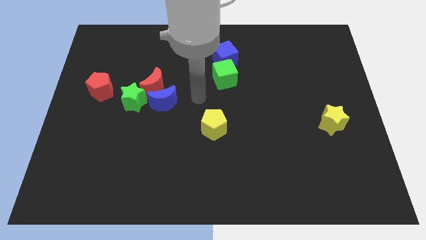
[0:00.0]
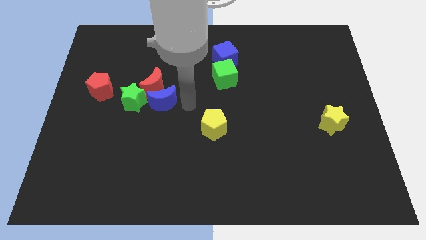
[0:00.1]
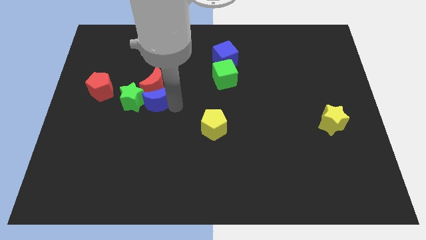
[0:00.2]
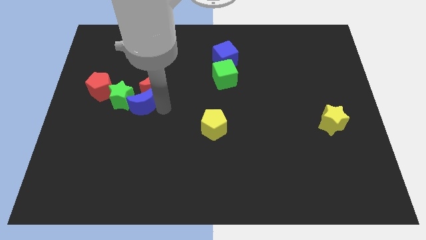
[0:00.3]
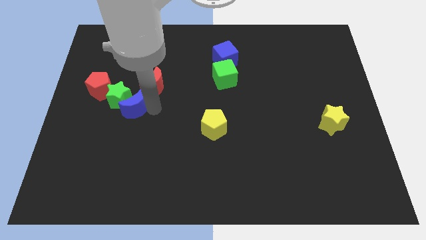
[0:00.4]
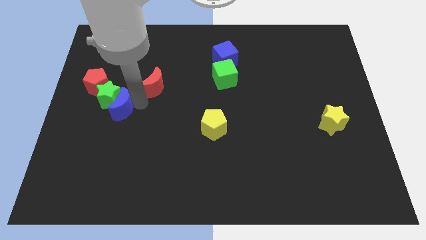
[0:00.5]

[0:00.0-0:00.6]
separate the red moon from the blue moon and green star

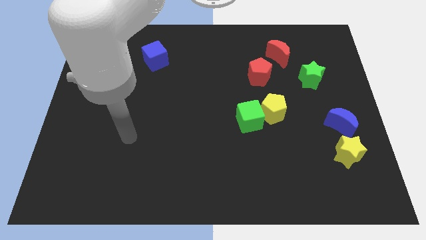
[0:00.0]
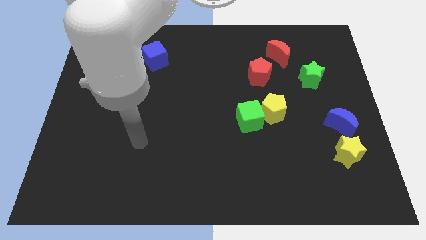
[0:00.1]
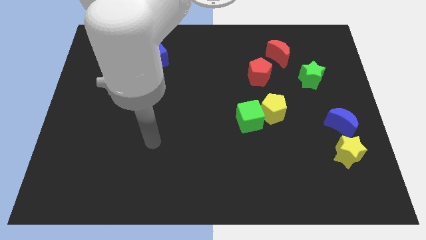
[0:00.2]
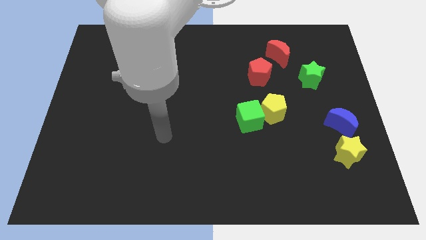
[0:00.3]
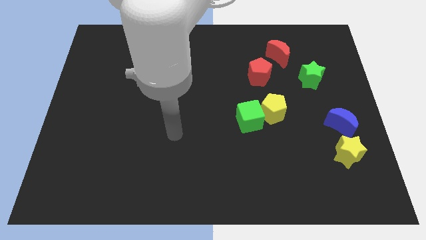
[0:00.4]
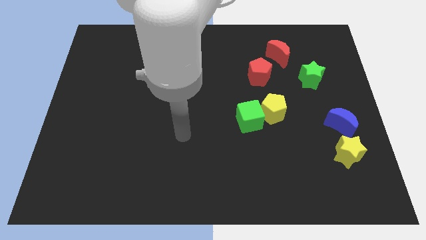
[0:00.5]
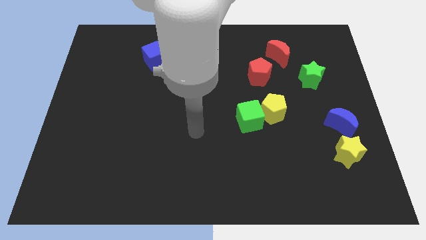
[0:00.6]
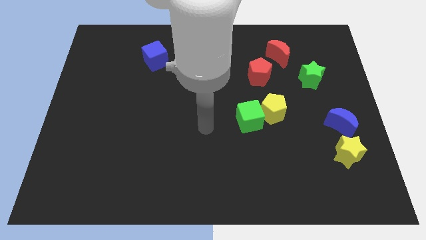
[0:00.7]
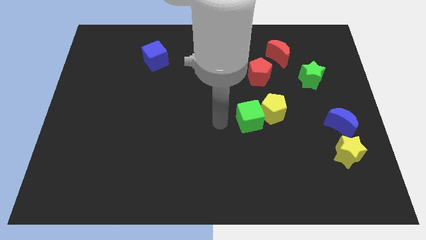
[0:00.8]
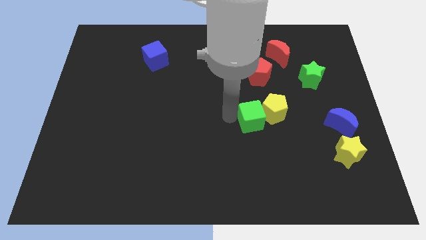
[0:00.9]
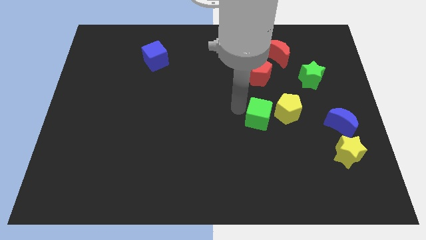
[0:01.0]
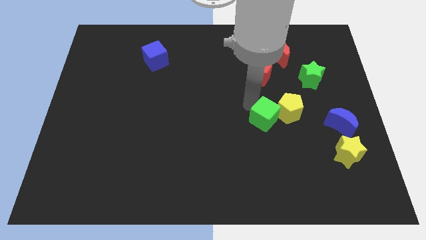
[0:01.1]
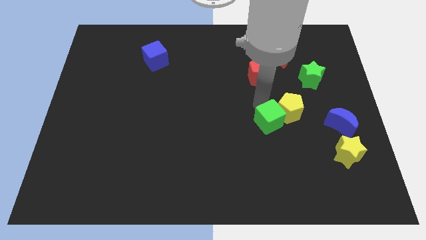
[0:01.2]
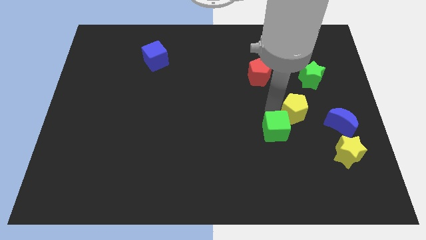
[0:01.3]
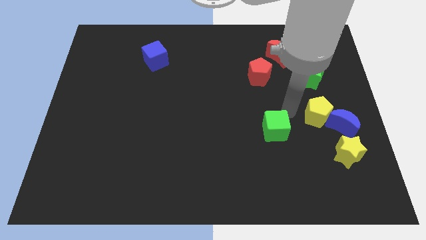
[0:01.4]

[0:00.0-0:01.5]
separate the green cube from the yellow pentagon

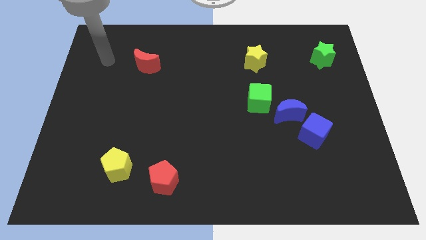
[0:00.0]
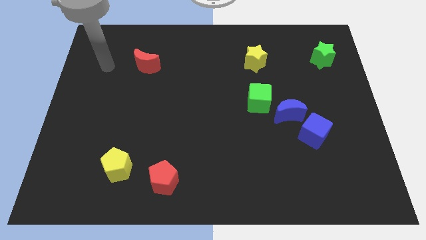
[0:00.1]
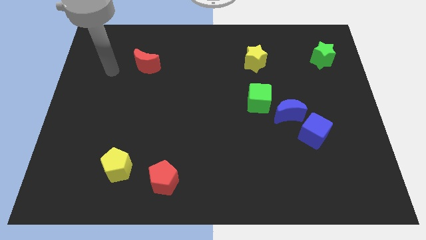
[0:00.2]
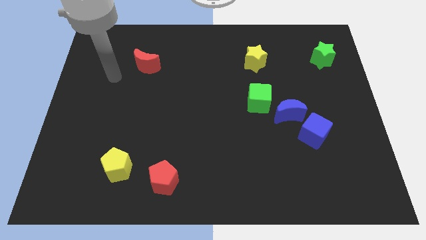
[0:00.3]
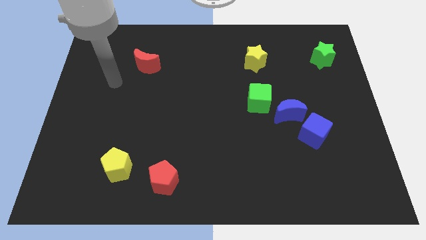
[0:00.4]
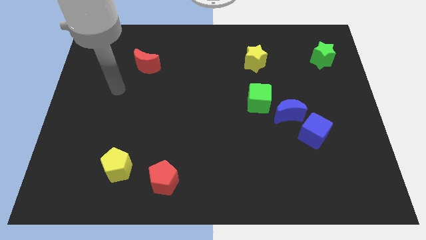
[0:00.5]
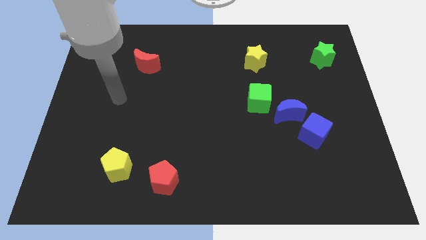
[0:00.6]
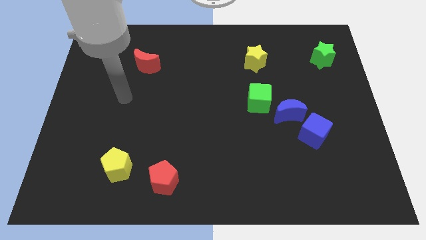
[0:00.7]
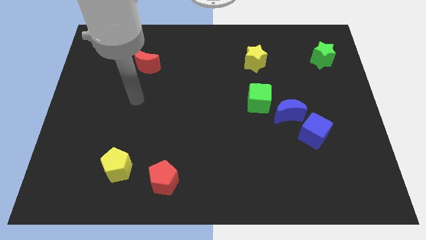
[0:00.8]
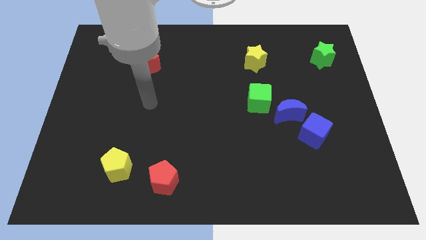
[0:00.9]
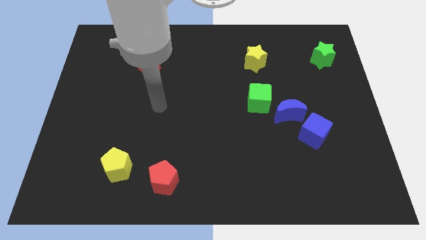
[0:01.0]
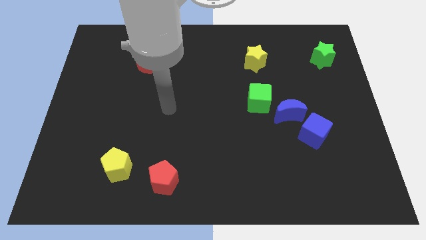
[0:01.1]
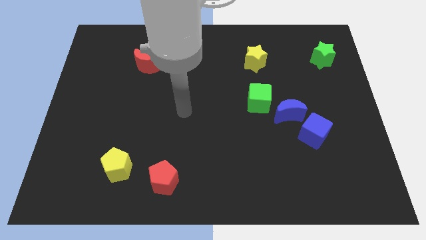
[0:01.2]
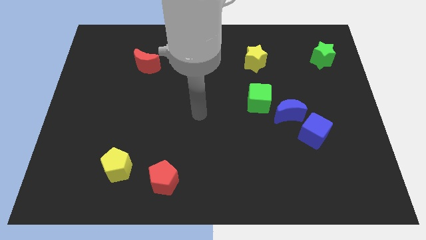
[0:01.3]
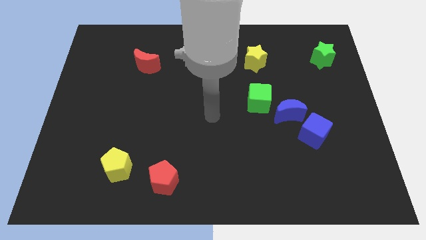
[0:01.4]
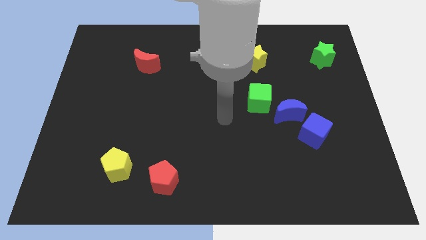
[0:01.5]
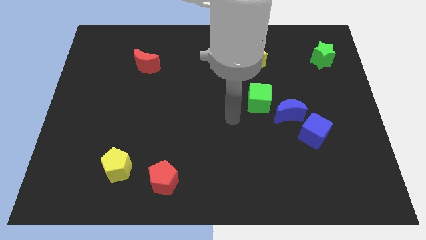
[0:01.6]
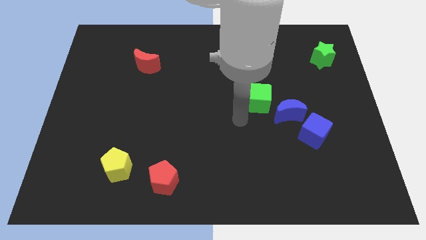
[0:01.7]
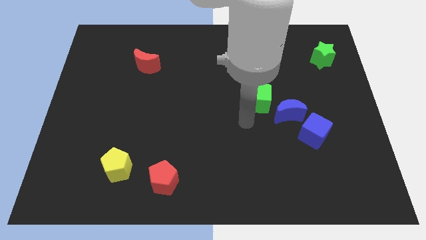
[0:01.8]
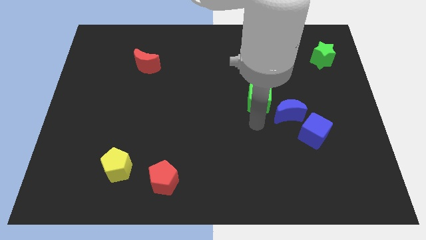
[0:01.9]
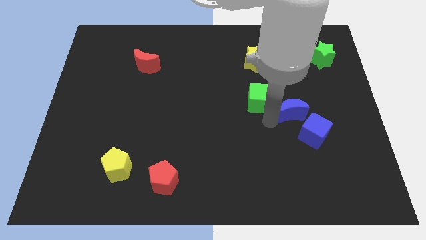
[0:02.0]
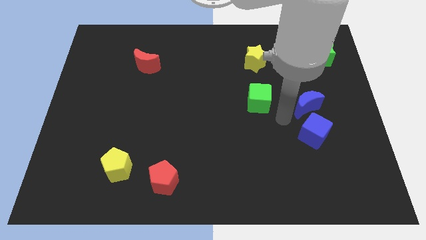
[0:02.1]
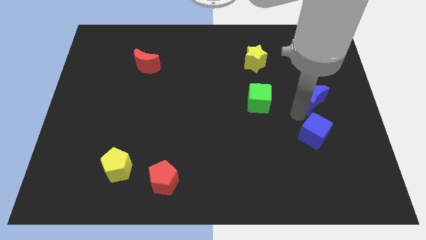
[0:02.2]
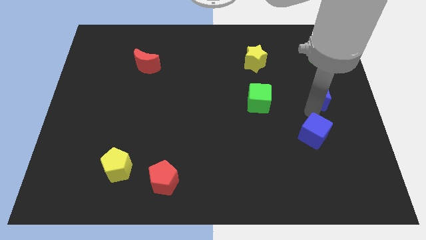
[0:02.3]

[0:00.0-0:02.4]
pull the blue cube apart from the blue moon

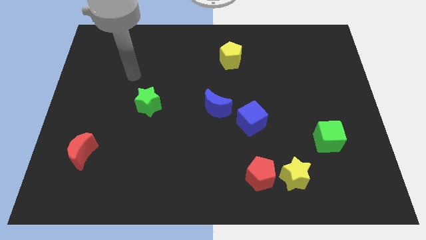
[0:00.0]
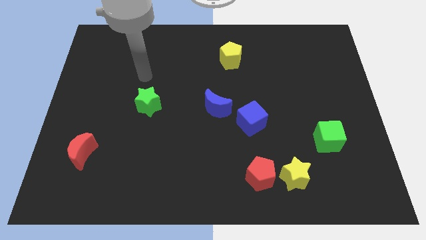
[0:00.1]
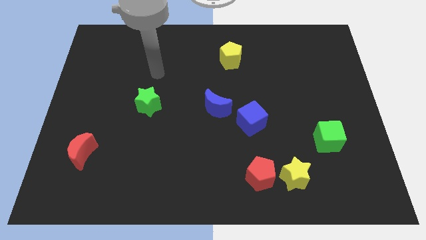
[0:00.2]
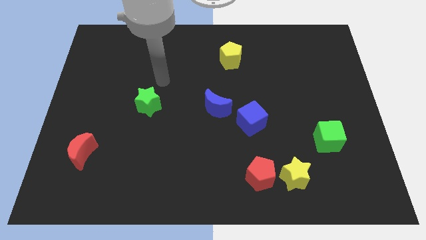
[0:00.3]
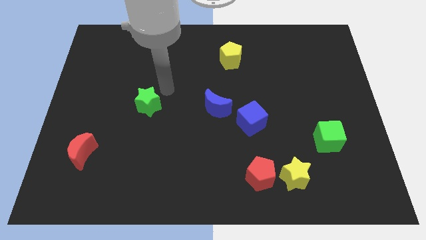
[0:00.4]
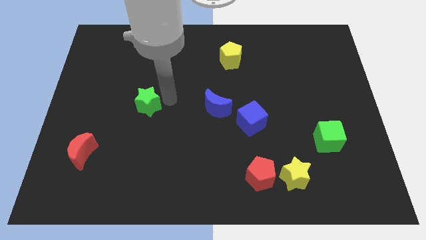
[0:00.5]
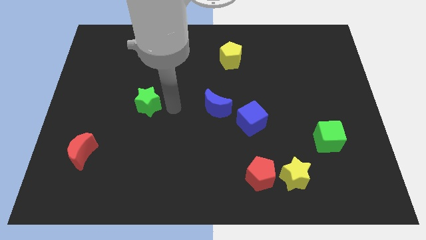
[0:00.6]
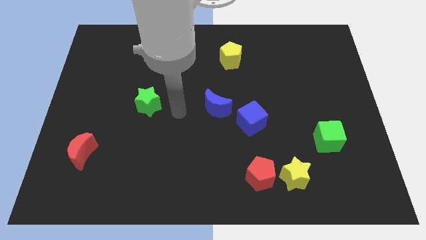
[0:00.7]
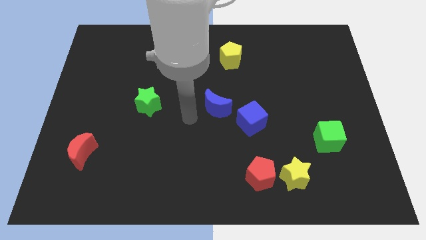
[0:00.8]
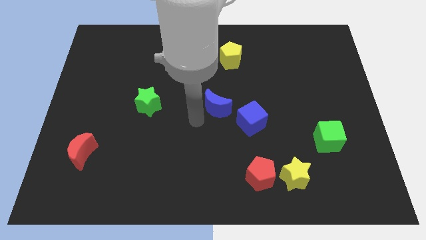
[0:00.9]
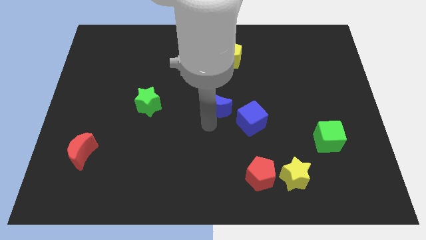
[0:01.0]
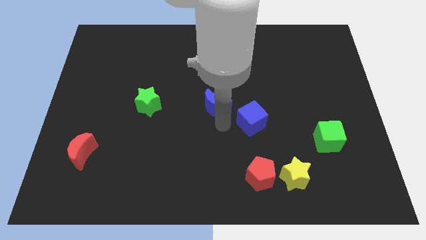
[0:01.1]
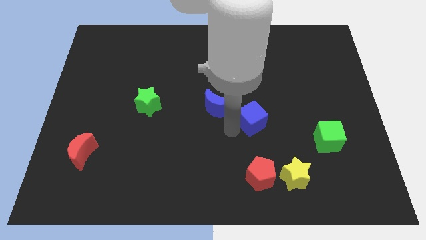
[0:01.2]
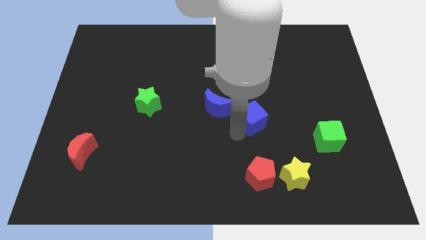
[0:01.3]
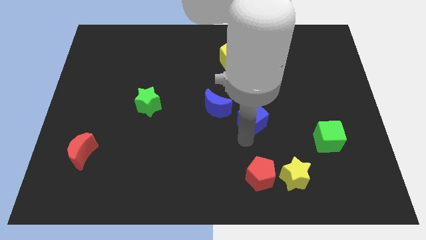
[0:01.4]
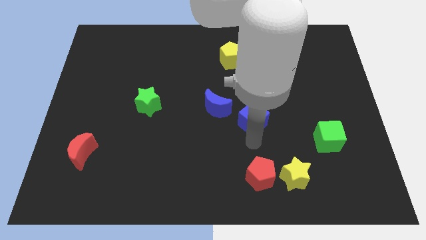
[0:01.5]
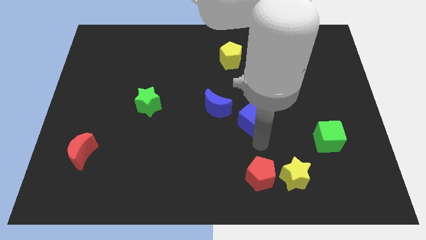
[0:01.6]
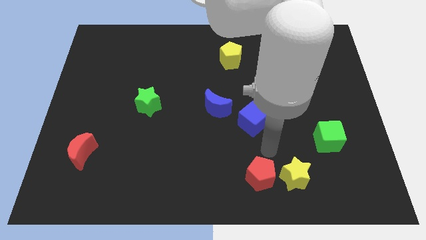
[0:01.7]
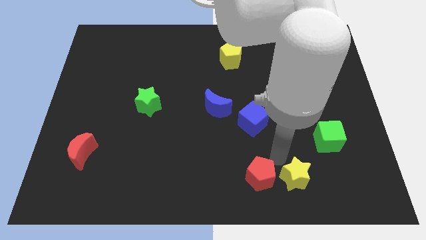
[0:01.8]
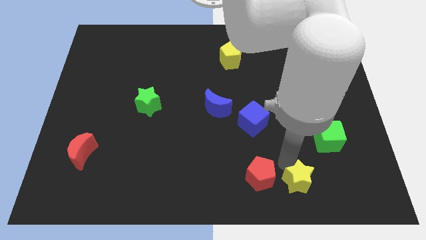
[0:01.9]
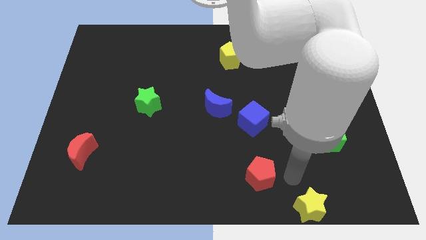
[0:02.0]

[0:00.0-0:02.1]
separate the red pentagon from the yellow star

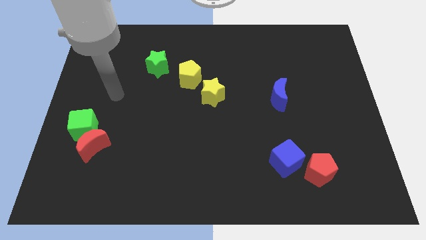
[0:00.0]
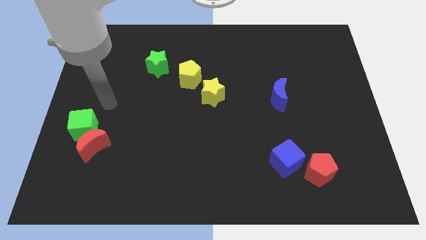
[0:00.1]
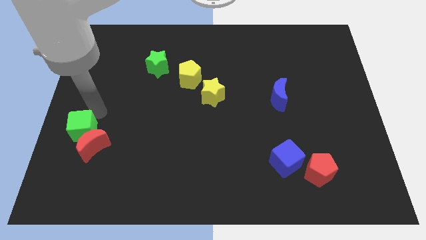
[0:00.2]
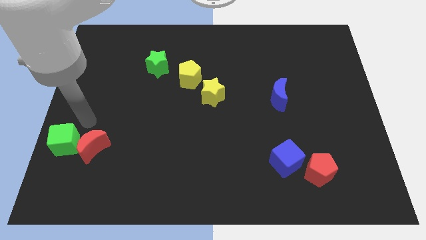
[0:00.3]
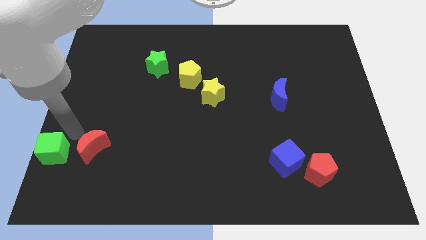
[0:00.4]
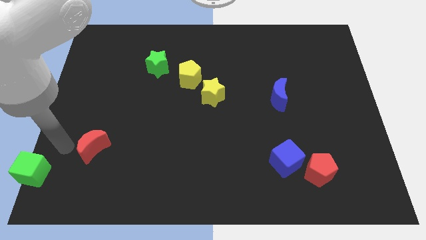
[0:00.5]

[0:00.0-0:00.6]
separate the red moon from the green cube

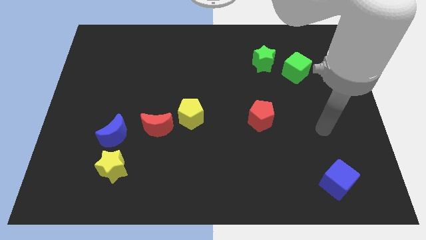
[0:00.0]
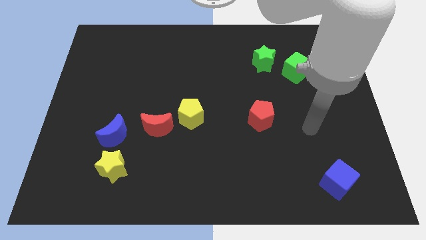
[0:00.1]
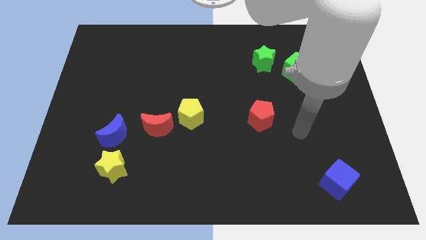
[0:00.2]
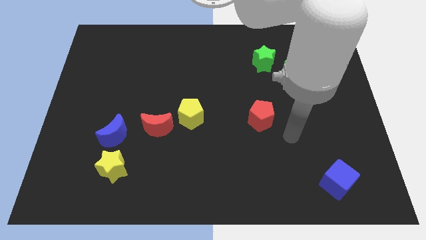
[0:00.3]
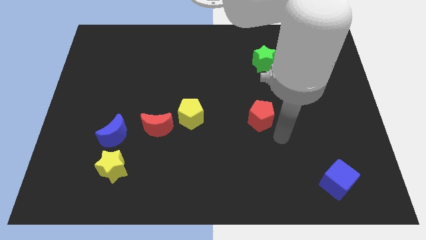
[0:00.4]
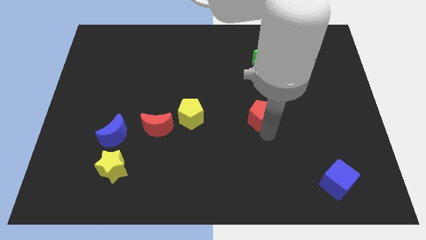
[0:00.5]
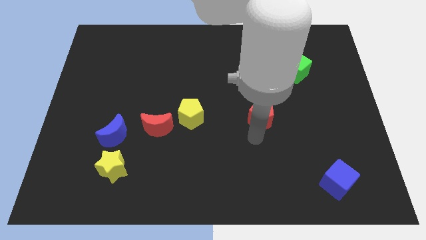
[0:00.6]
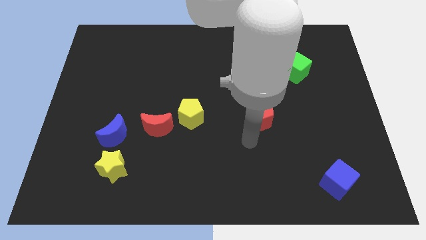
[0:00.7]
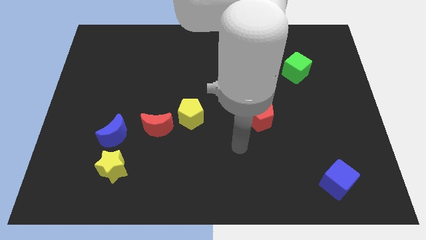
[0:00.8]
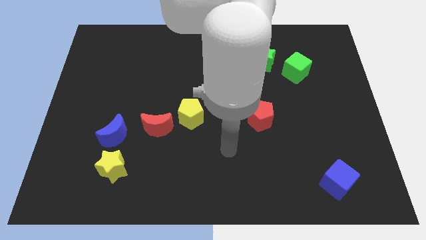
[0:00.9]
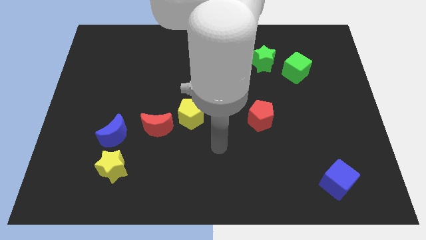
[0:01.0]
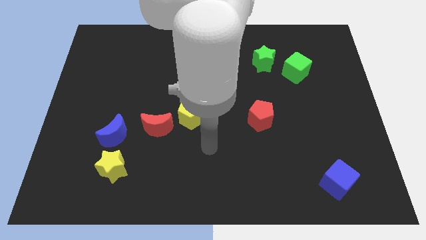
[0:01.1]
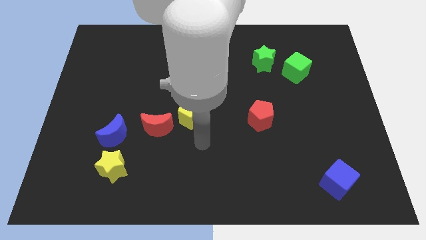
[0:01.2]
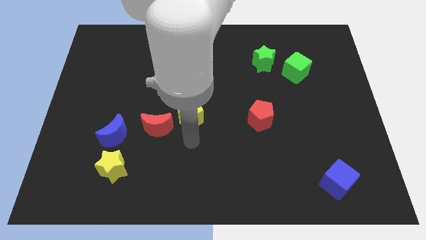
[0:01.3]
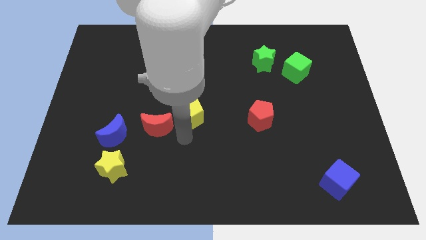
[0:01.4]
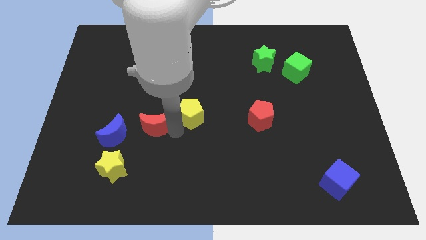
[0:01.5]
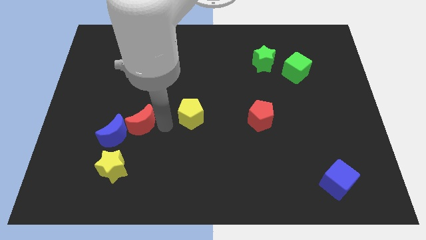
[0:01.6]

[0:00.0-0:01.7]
move the yellow pentagon away from the red moon

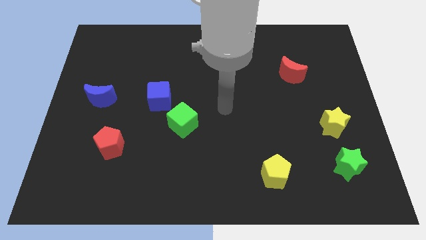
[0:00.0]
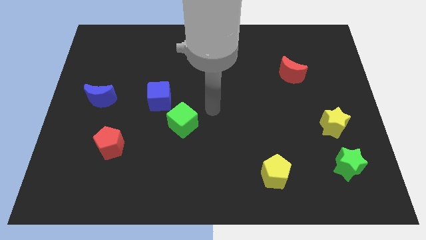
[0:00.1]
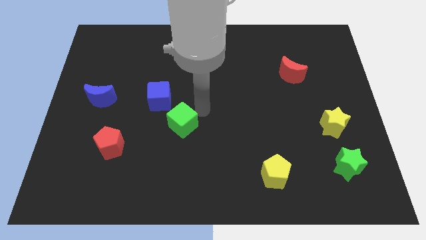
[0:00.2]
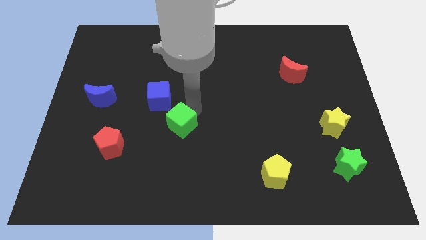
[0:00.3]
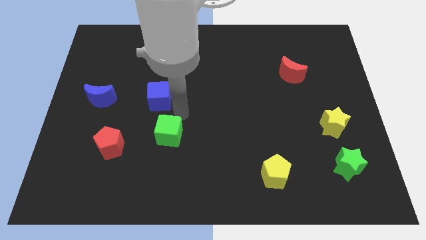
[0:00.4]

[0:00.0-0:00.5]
move the blue cube away from the green cube
